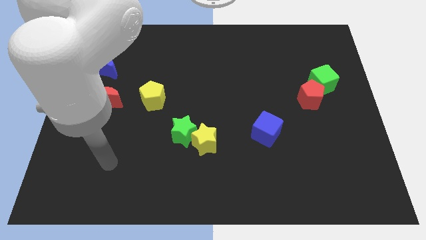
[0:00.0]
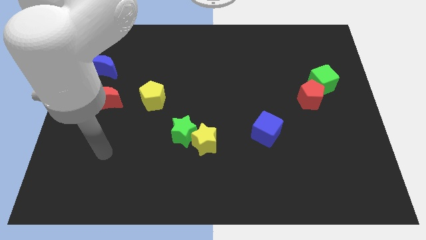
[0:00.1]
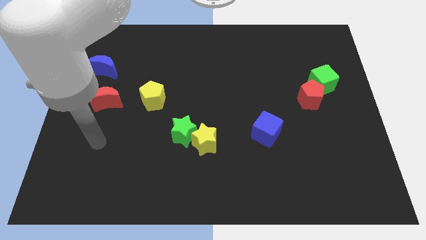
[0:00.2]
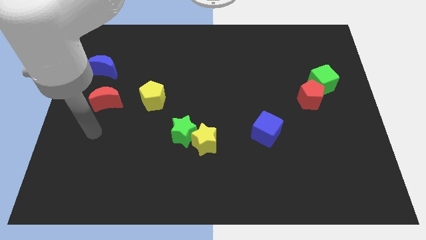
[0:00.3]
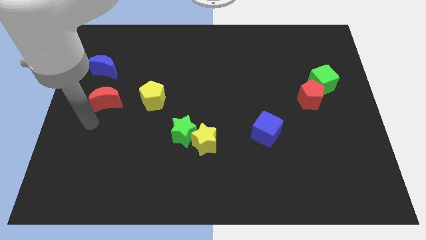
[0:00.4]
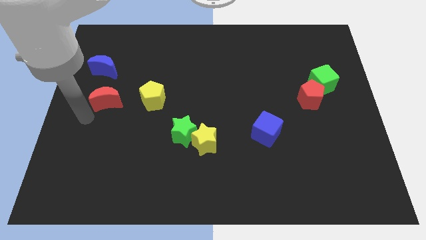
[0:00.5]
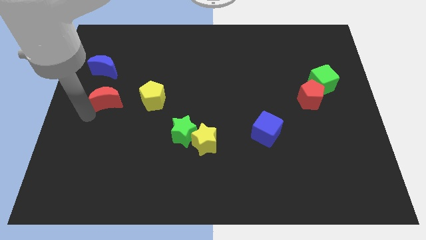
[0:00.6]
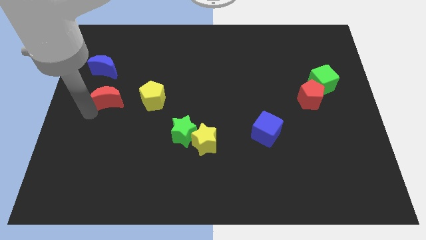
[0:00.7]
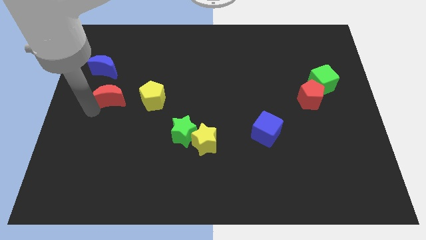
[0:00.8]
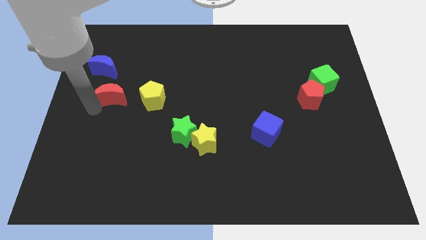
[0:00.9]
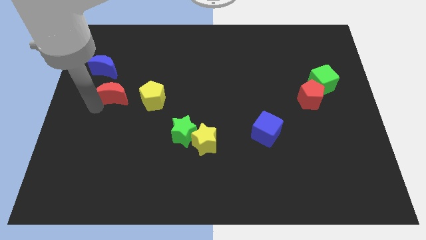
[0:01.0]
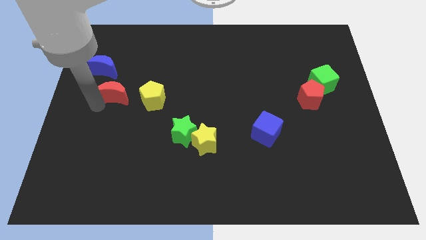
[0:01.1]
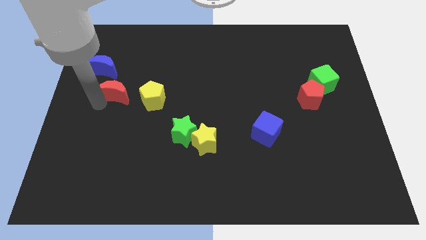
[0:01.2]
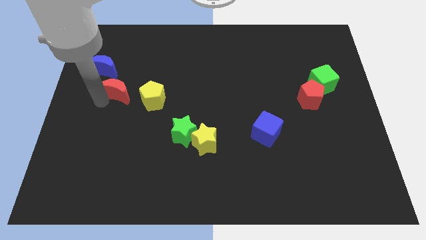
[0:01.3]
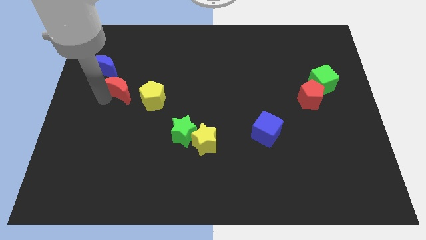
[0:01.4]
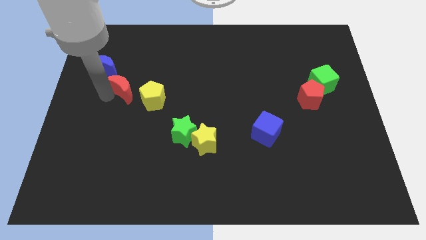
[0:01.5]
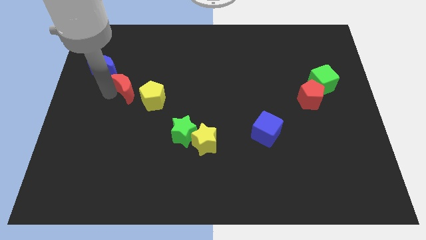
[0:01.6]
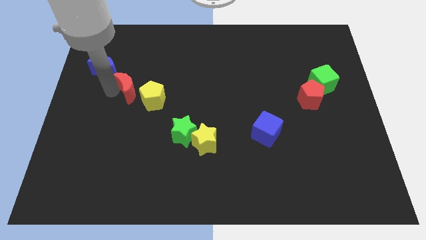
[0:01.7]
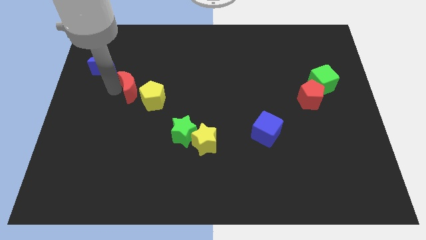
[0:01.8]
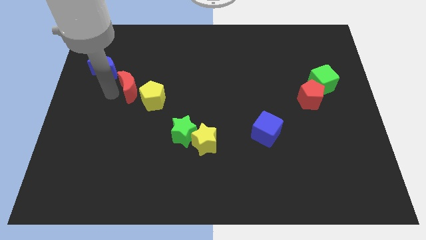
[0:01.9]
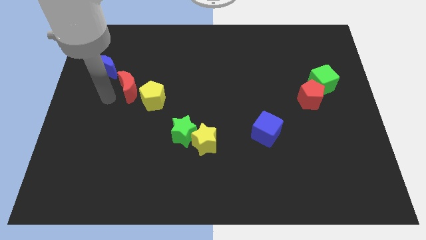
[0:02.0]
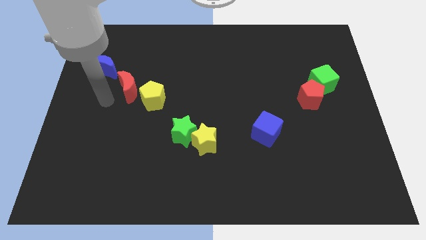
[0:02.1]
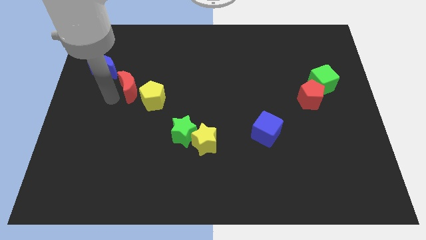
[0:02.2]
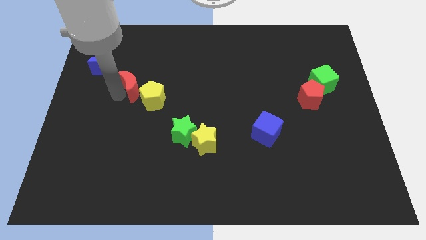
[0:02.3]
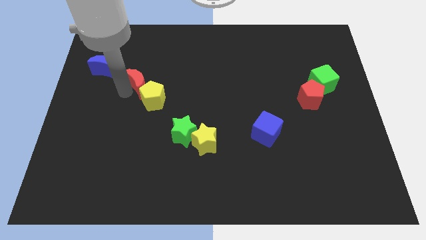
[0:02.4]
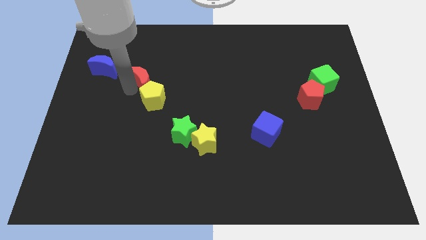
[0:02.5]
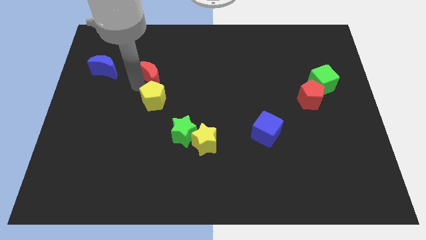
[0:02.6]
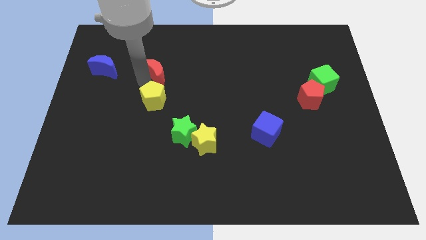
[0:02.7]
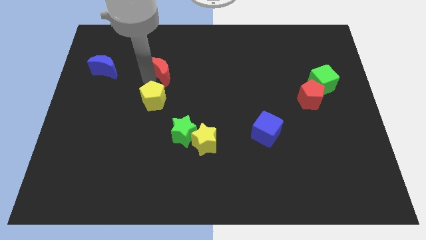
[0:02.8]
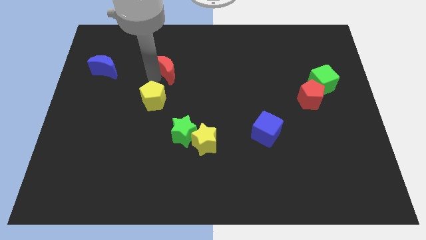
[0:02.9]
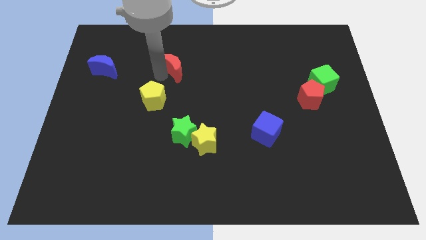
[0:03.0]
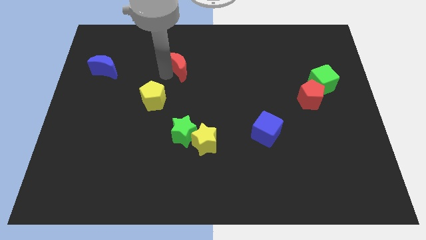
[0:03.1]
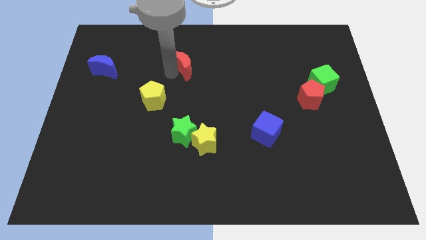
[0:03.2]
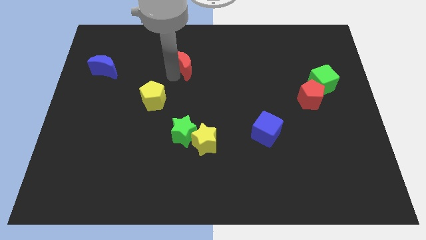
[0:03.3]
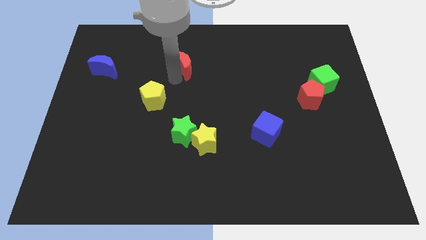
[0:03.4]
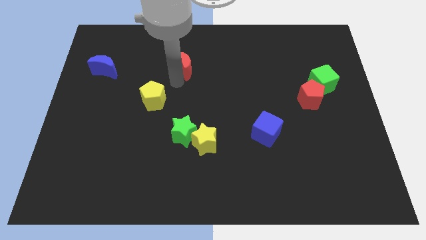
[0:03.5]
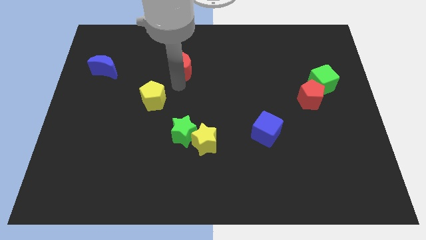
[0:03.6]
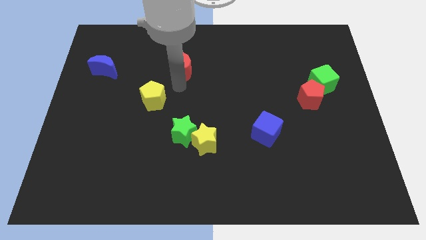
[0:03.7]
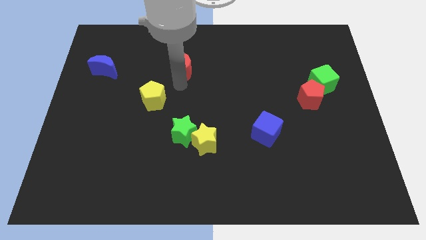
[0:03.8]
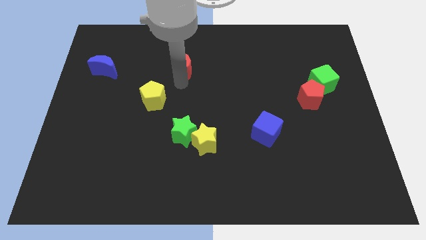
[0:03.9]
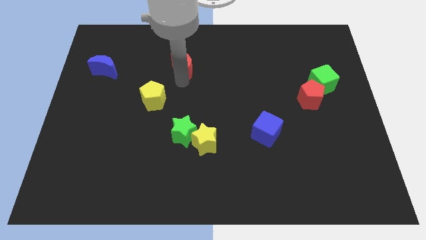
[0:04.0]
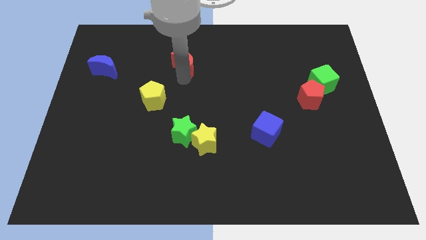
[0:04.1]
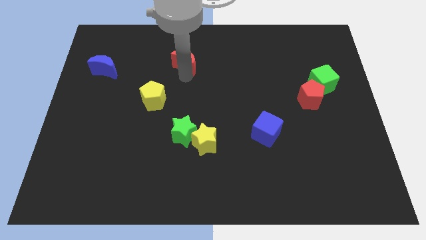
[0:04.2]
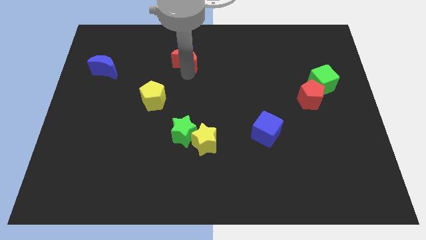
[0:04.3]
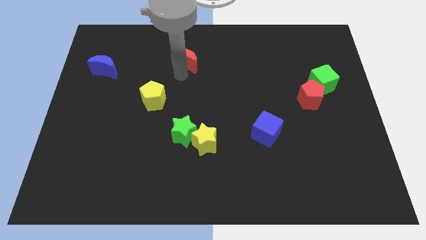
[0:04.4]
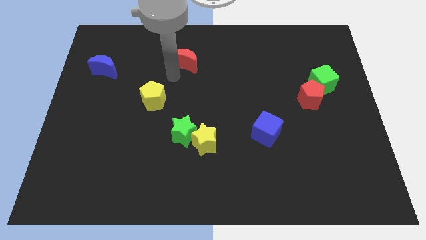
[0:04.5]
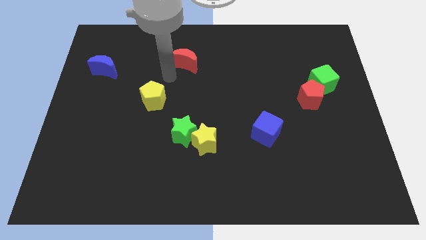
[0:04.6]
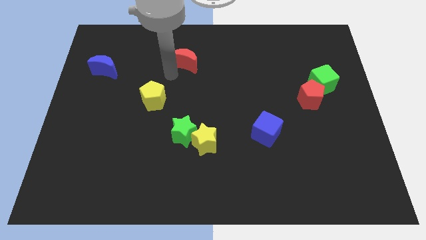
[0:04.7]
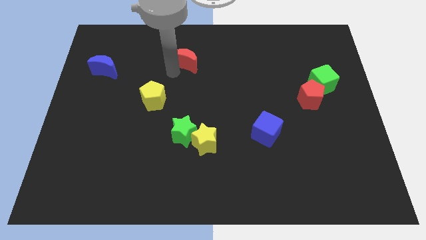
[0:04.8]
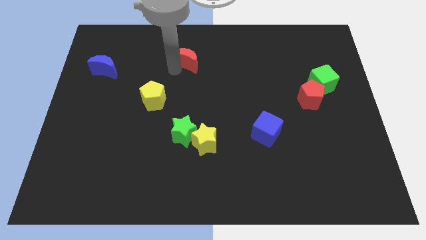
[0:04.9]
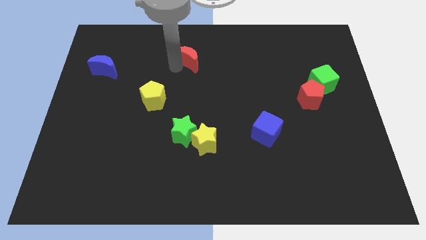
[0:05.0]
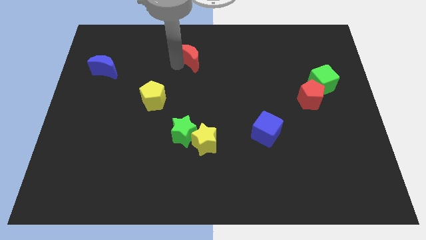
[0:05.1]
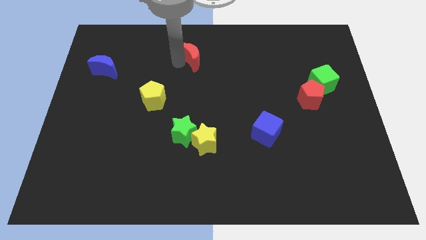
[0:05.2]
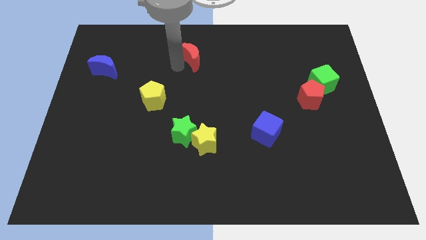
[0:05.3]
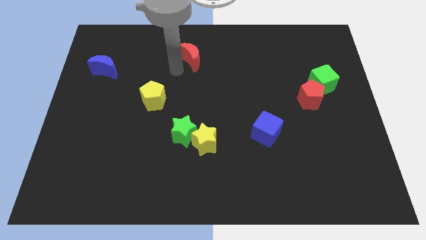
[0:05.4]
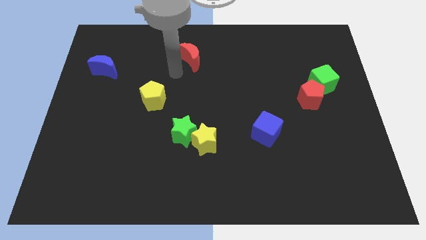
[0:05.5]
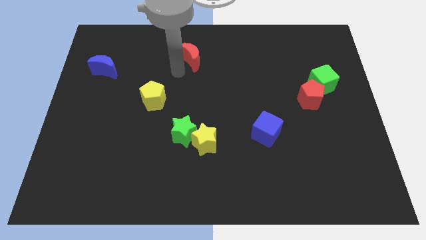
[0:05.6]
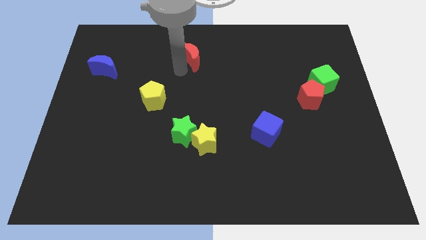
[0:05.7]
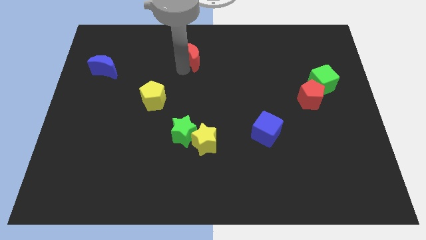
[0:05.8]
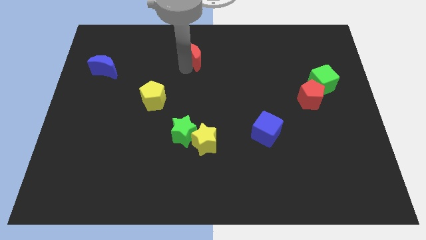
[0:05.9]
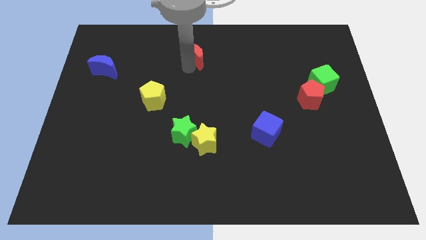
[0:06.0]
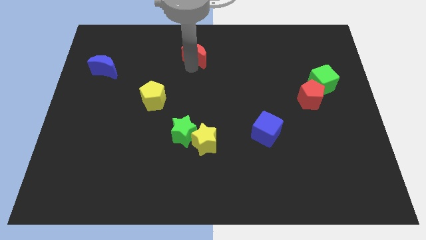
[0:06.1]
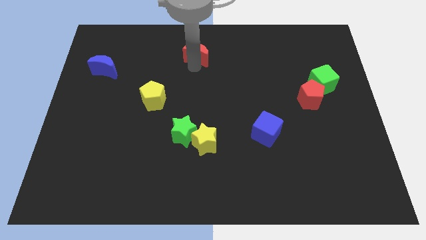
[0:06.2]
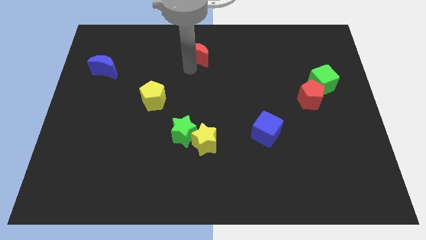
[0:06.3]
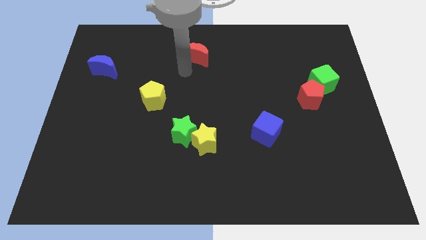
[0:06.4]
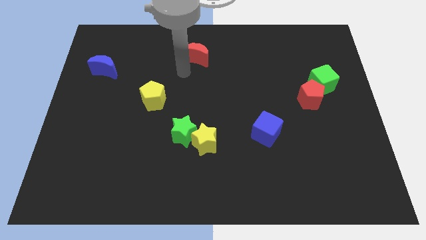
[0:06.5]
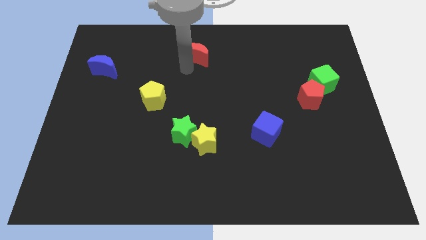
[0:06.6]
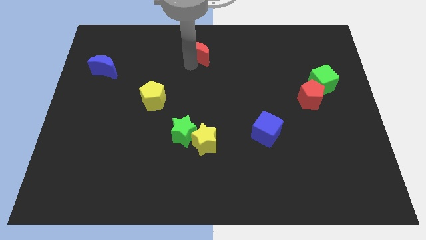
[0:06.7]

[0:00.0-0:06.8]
put the red moon to the top side
